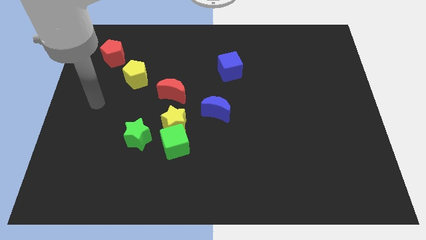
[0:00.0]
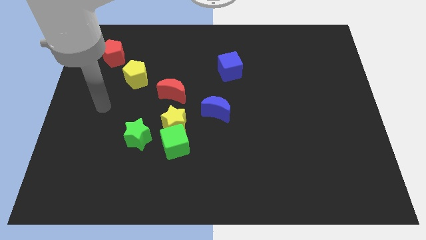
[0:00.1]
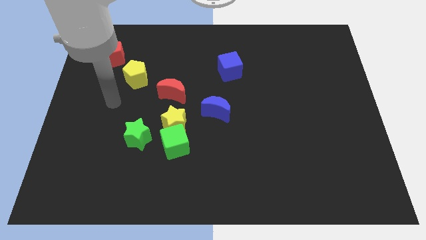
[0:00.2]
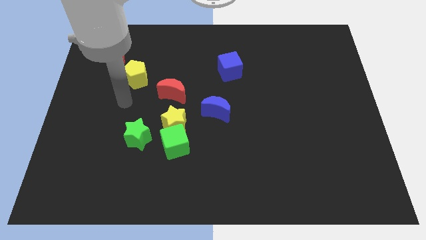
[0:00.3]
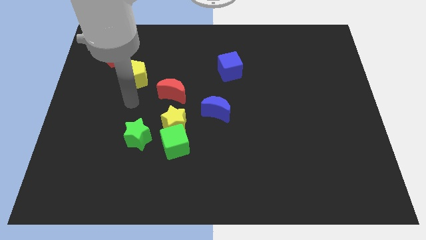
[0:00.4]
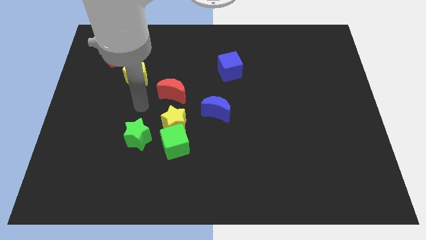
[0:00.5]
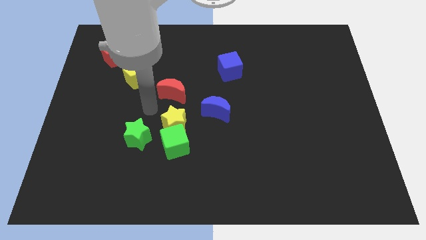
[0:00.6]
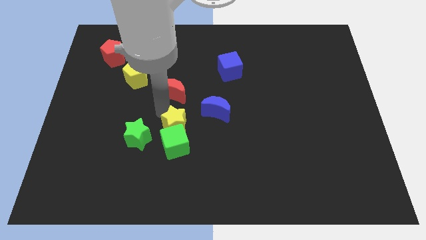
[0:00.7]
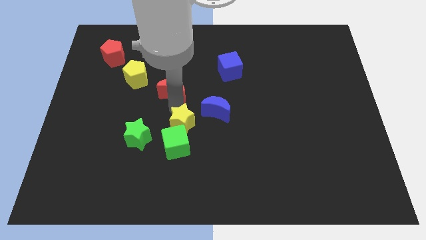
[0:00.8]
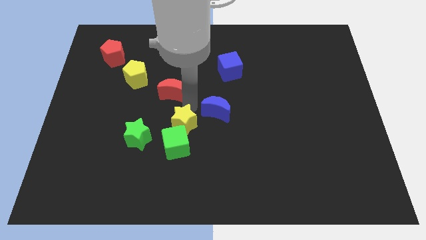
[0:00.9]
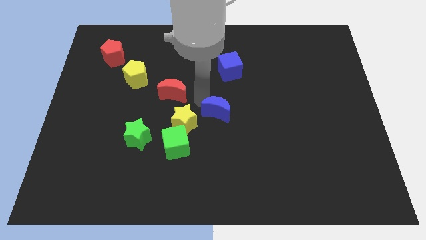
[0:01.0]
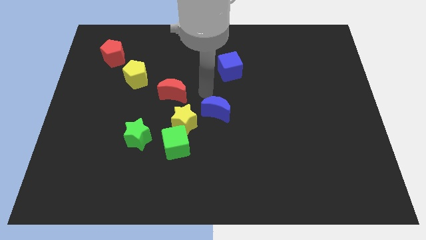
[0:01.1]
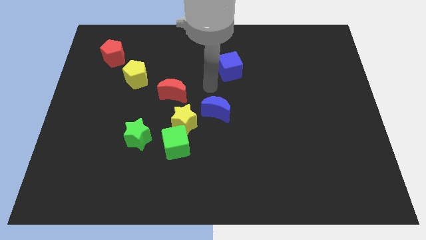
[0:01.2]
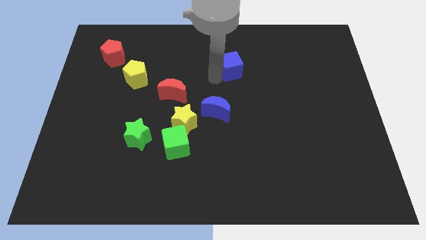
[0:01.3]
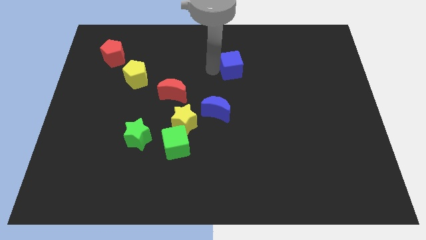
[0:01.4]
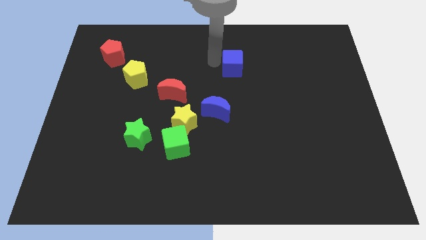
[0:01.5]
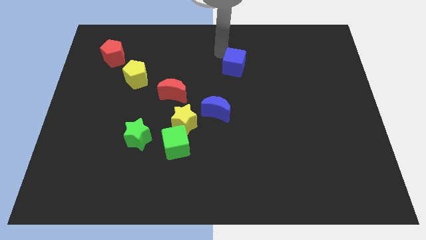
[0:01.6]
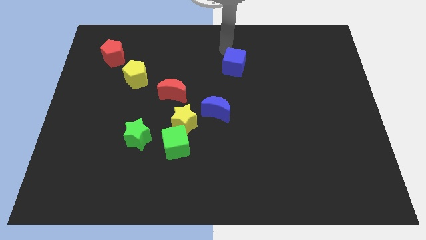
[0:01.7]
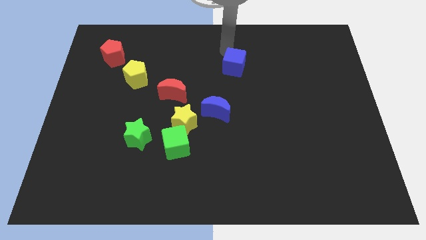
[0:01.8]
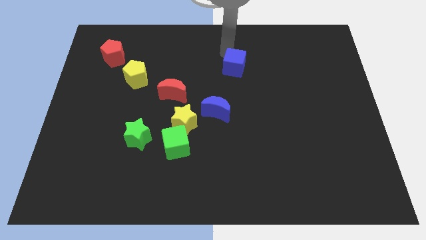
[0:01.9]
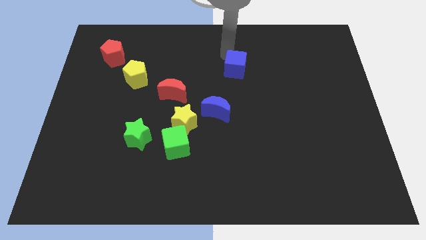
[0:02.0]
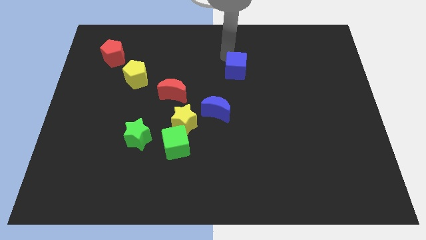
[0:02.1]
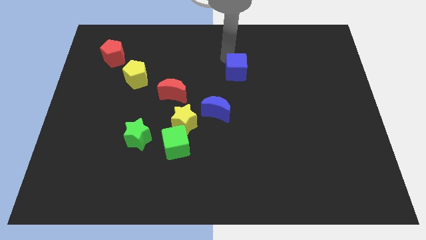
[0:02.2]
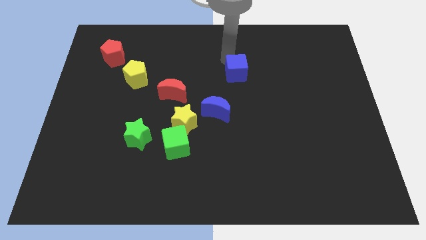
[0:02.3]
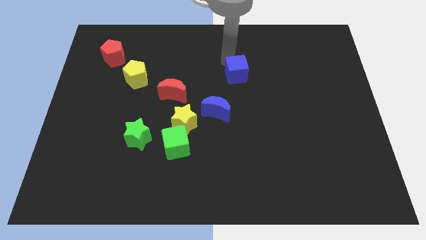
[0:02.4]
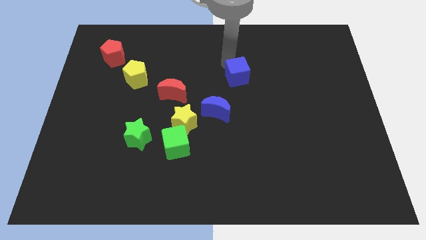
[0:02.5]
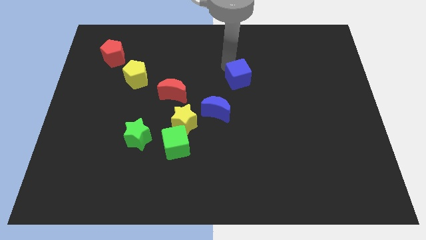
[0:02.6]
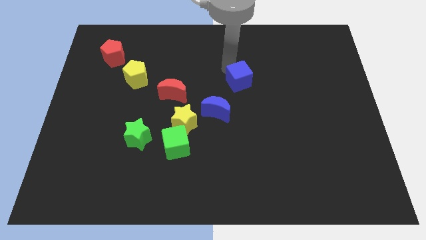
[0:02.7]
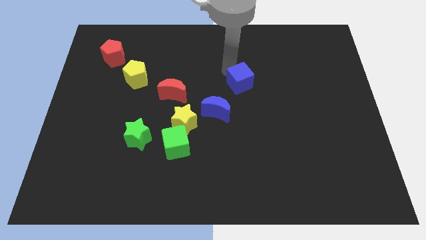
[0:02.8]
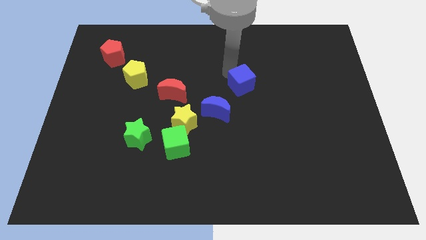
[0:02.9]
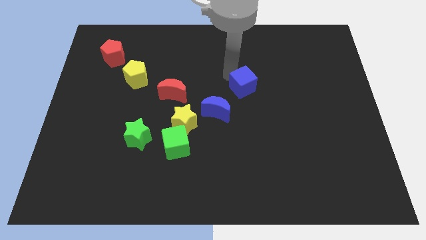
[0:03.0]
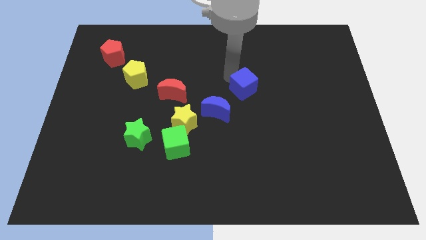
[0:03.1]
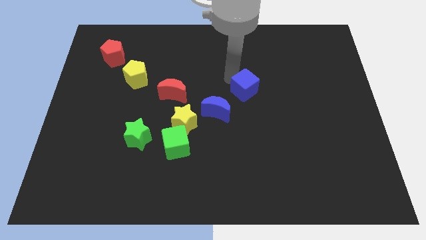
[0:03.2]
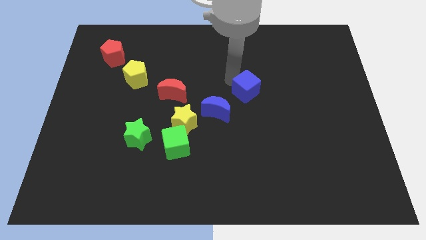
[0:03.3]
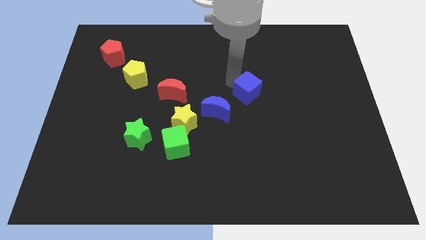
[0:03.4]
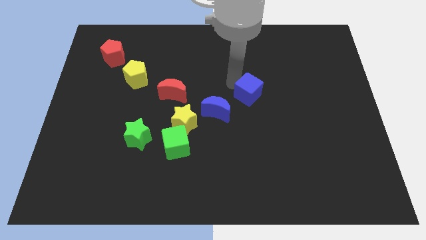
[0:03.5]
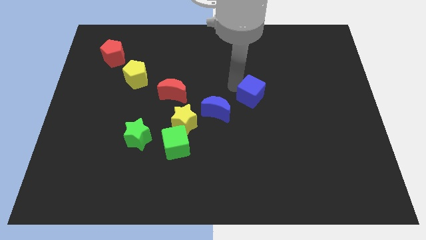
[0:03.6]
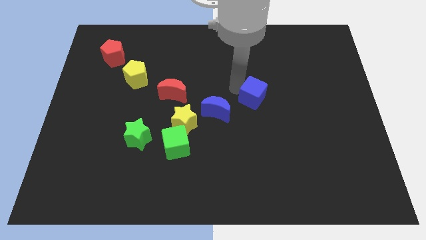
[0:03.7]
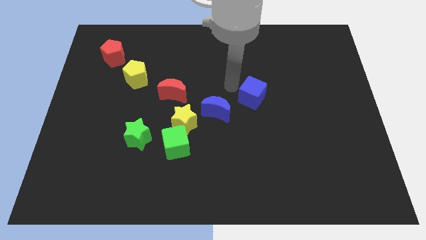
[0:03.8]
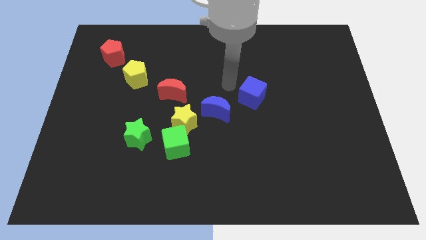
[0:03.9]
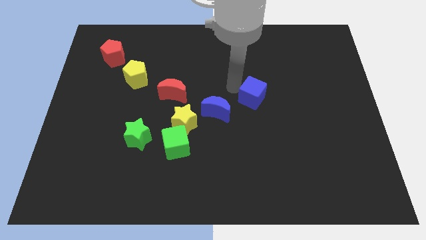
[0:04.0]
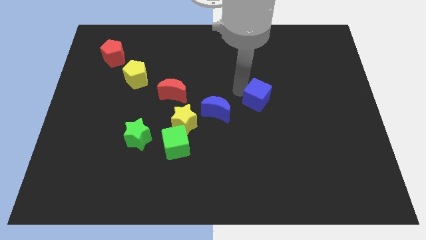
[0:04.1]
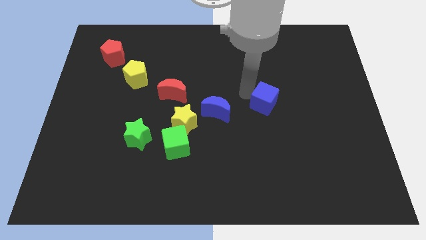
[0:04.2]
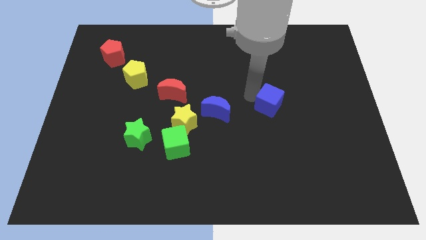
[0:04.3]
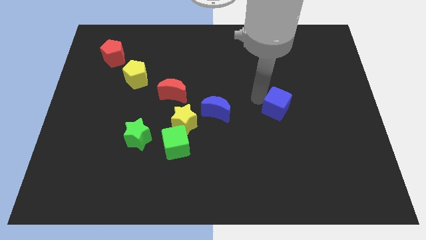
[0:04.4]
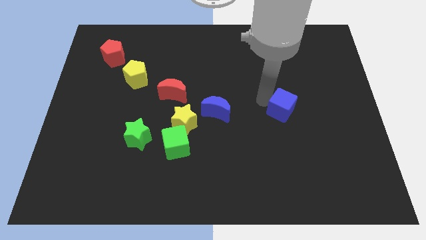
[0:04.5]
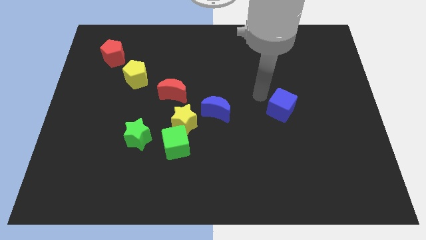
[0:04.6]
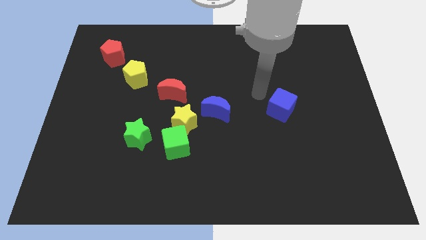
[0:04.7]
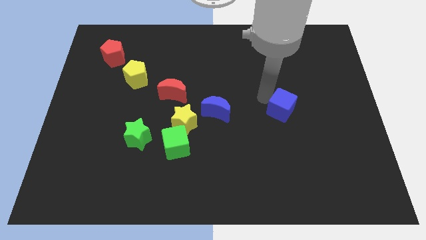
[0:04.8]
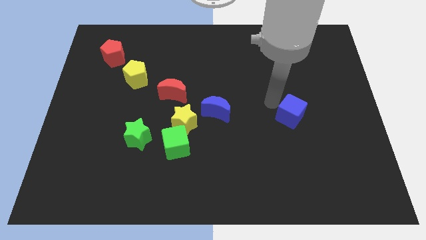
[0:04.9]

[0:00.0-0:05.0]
push the blue cube downwards and to the right diagonally

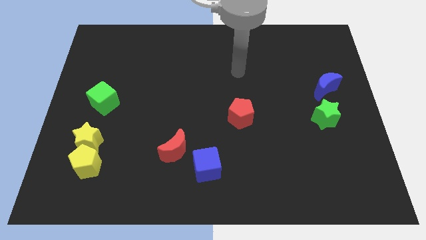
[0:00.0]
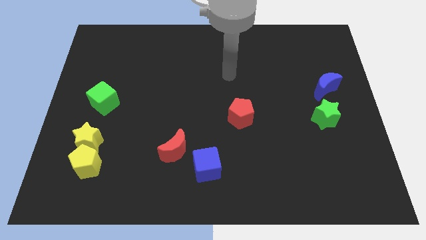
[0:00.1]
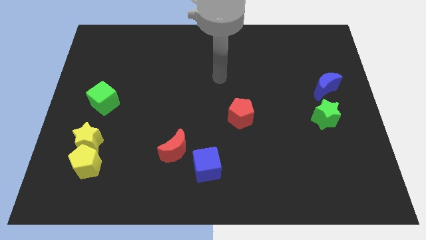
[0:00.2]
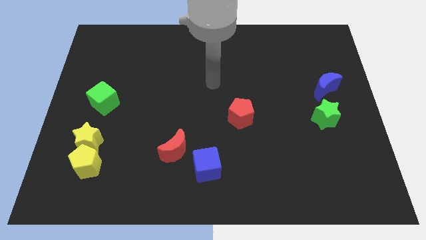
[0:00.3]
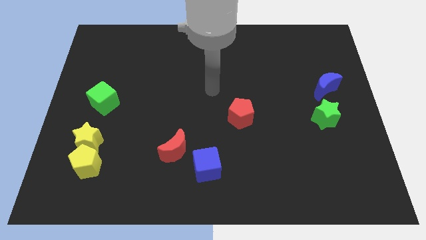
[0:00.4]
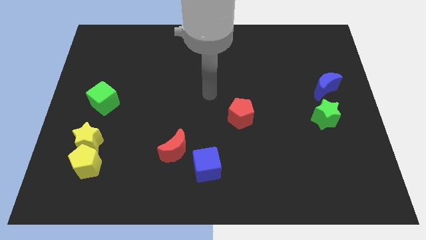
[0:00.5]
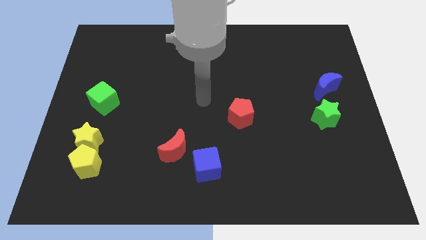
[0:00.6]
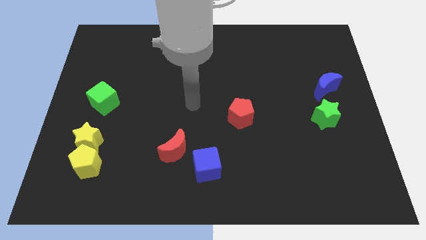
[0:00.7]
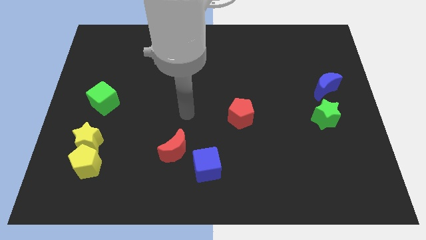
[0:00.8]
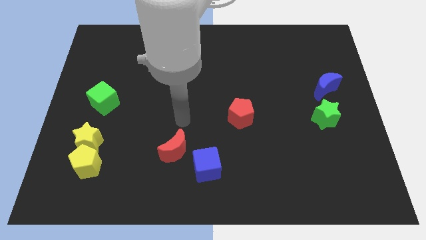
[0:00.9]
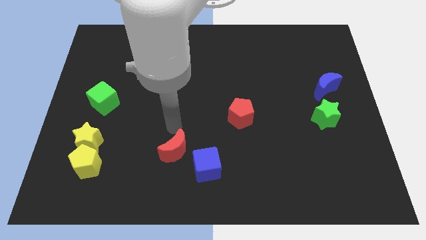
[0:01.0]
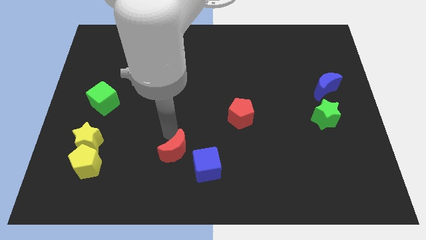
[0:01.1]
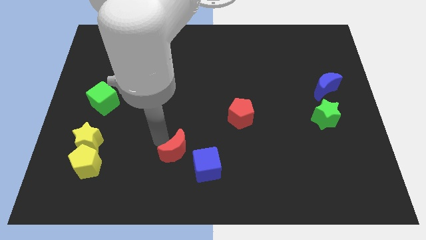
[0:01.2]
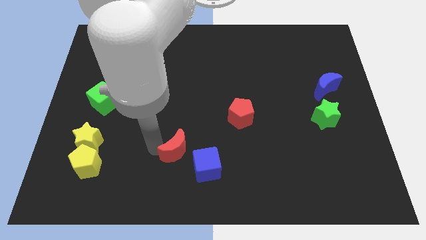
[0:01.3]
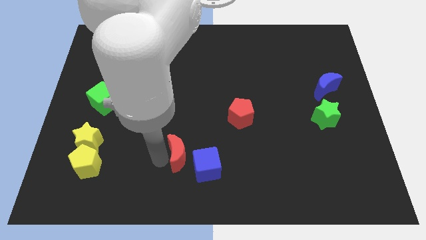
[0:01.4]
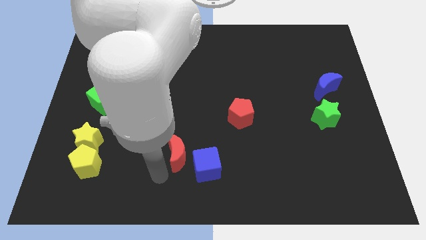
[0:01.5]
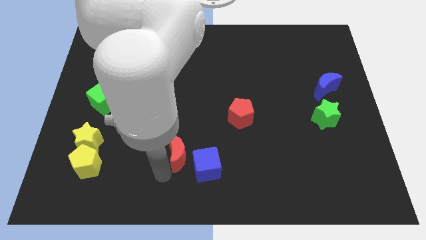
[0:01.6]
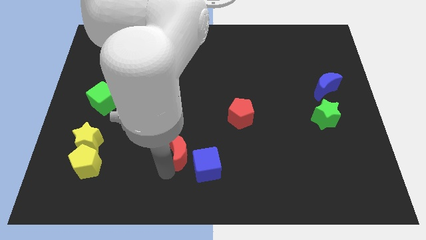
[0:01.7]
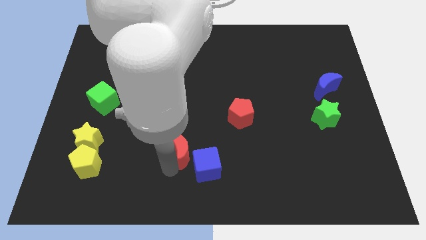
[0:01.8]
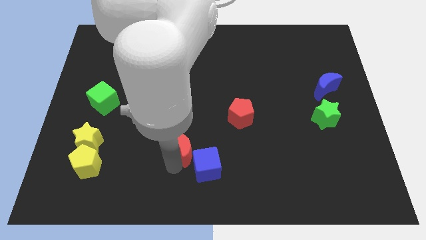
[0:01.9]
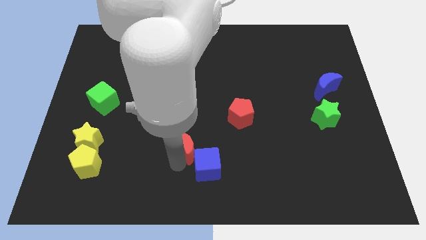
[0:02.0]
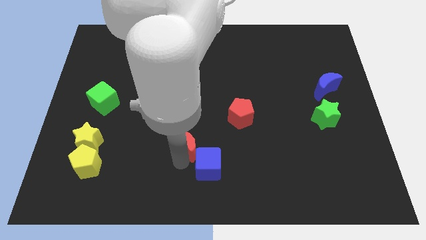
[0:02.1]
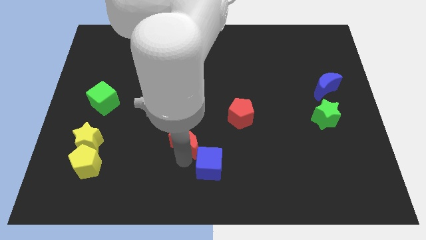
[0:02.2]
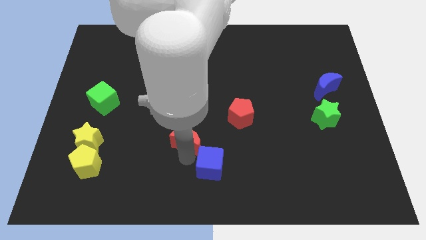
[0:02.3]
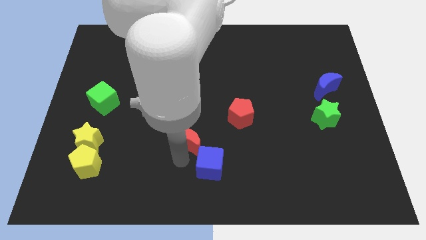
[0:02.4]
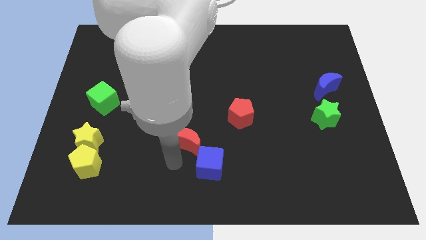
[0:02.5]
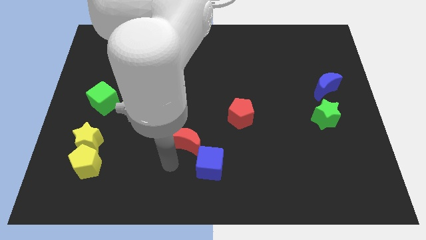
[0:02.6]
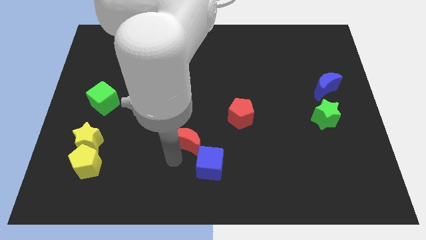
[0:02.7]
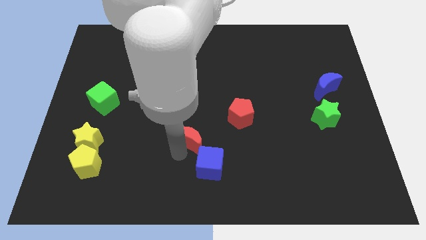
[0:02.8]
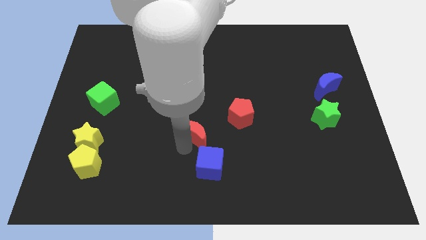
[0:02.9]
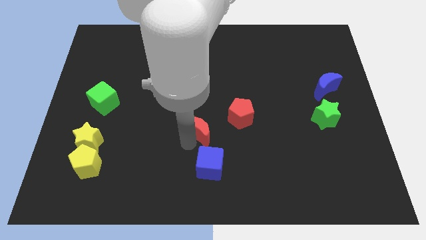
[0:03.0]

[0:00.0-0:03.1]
slightly push the red moon up and then right

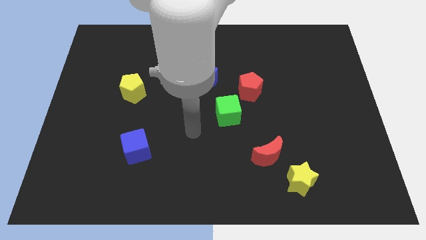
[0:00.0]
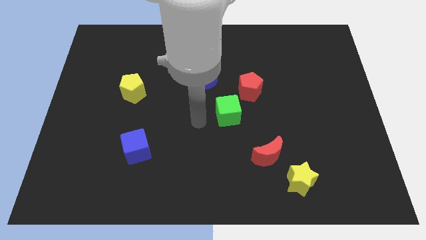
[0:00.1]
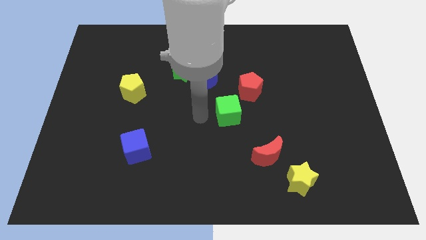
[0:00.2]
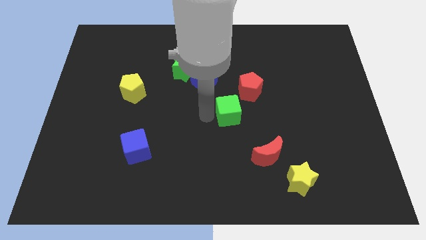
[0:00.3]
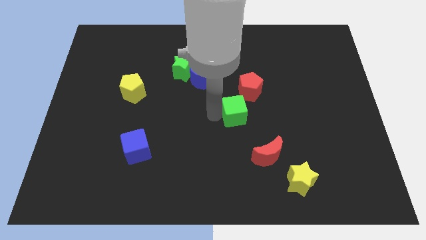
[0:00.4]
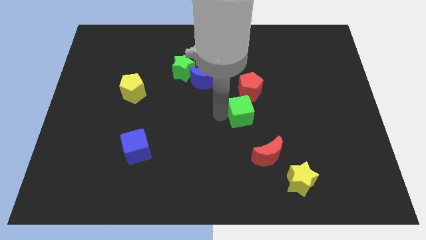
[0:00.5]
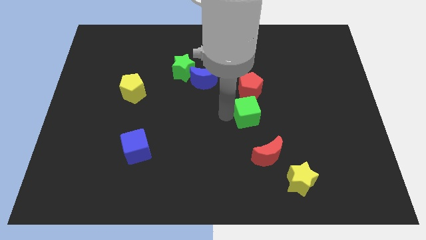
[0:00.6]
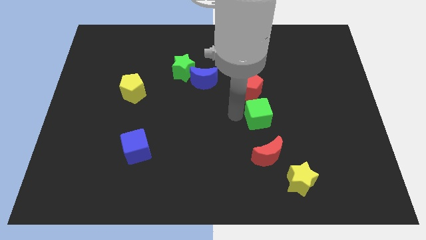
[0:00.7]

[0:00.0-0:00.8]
slightly slide the green cube to the right
